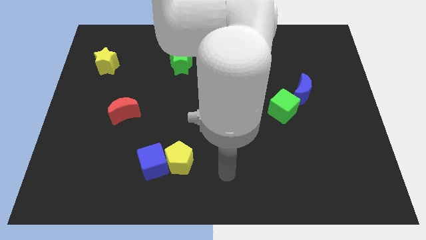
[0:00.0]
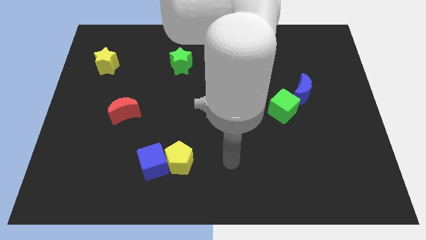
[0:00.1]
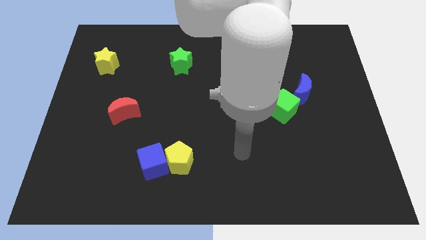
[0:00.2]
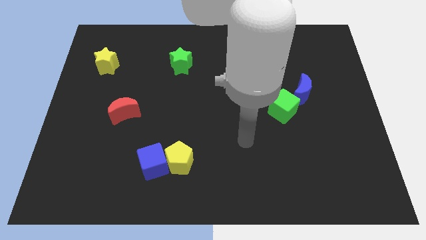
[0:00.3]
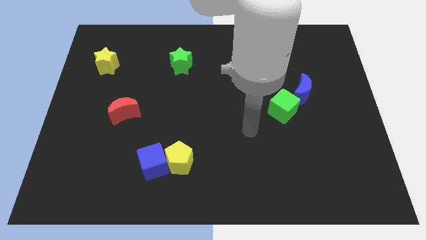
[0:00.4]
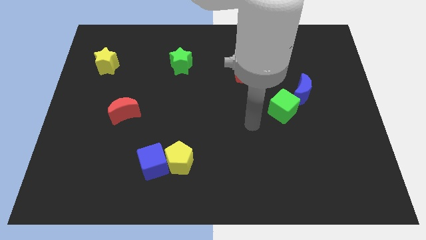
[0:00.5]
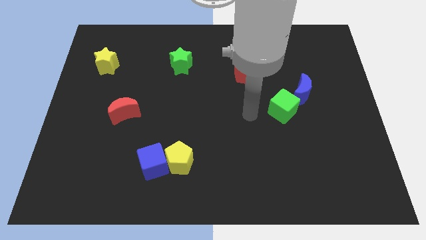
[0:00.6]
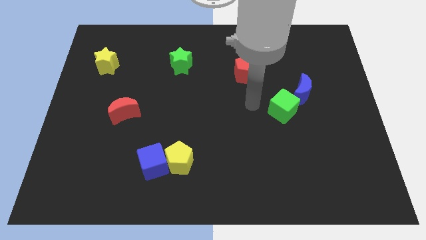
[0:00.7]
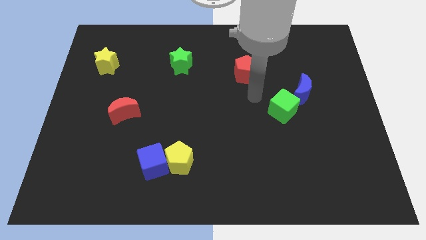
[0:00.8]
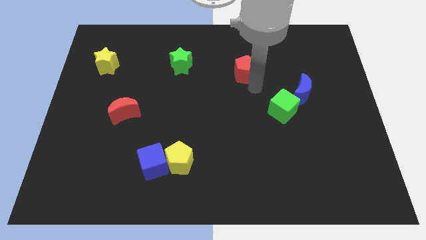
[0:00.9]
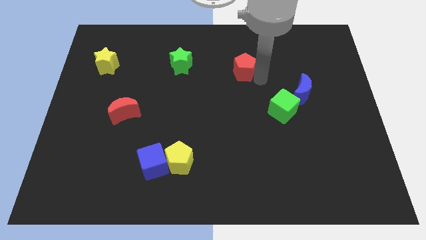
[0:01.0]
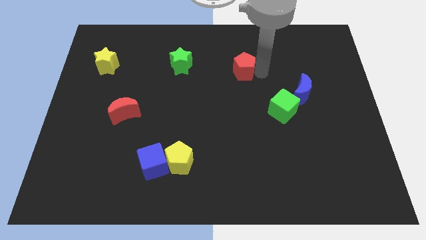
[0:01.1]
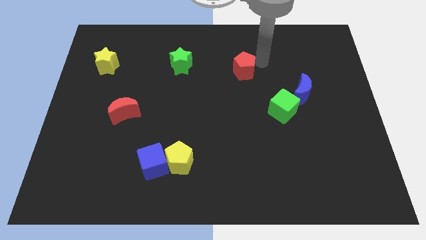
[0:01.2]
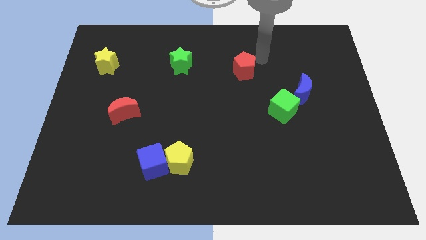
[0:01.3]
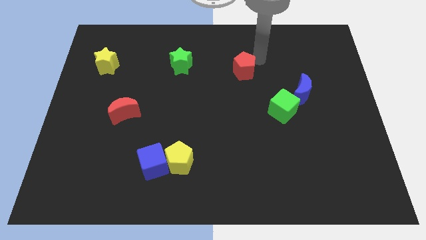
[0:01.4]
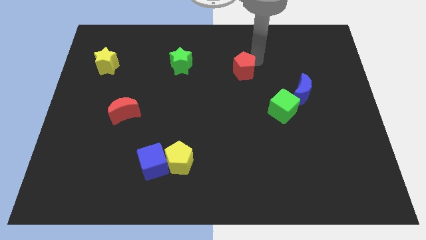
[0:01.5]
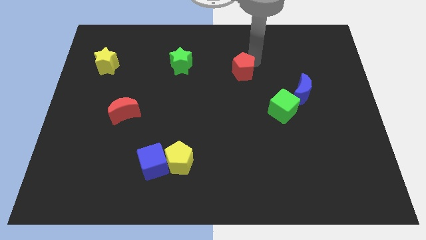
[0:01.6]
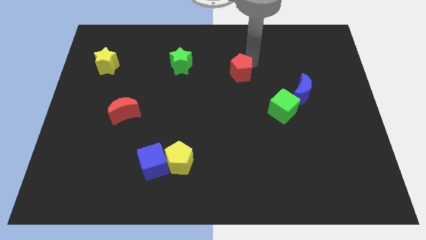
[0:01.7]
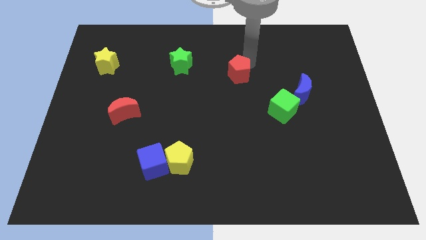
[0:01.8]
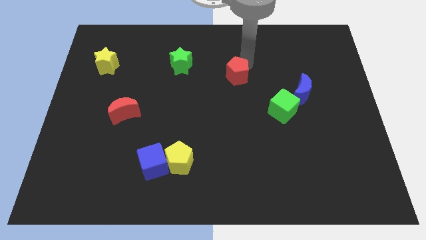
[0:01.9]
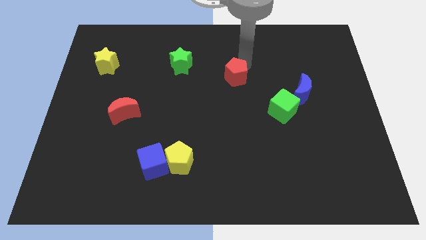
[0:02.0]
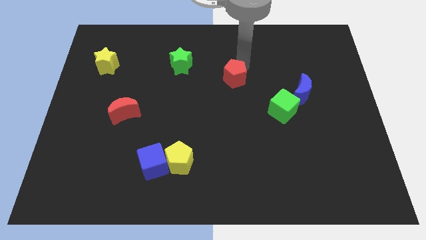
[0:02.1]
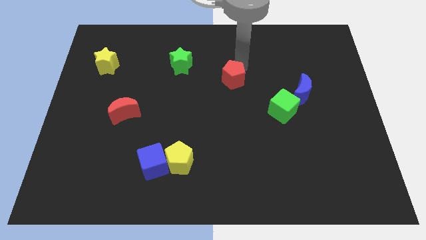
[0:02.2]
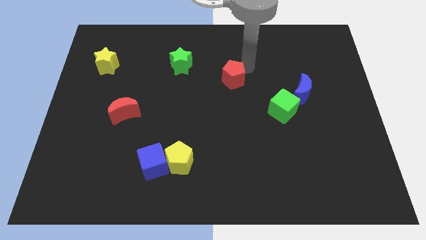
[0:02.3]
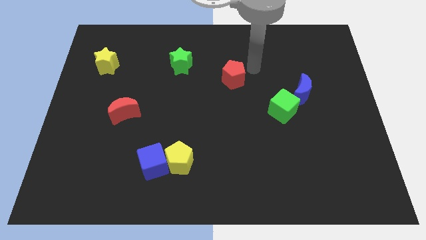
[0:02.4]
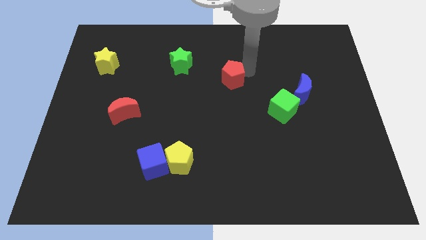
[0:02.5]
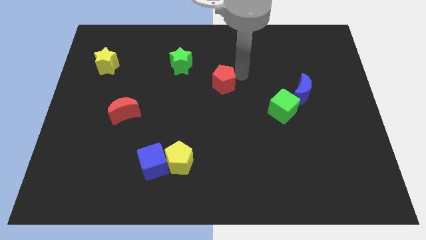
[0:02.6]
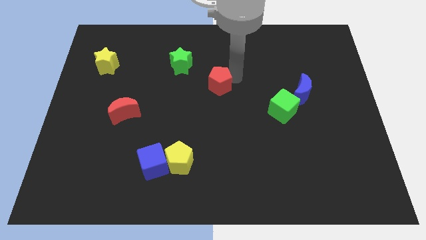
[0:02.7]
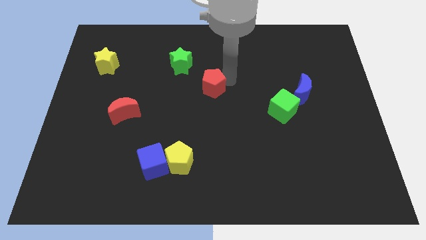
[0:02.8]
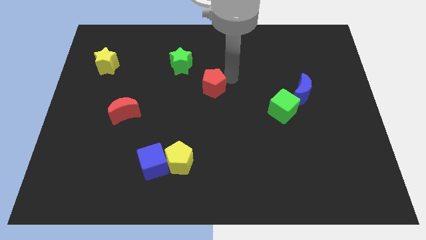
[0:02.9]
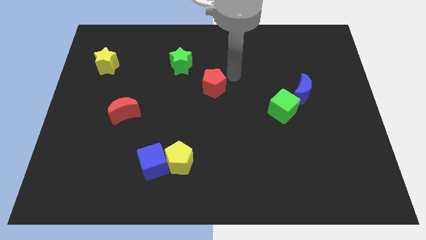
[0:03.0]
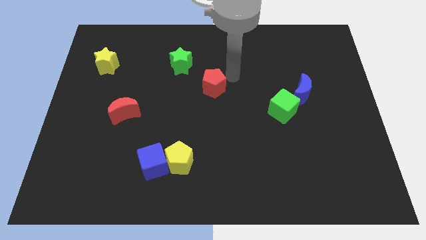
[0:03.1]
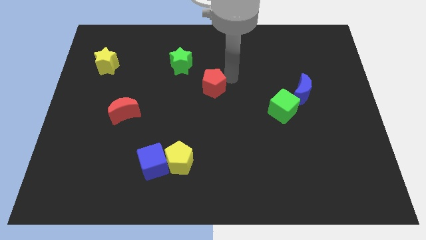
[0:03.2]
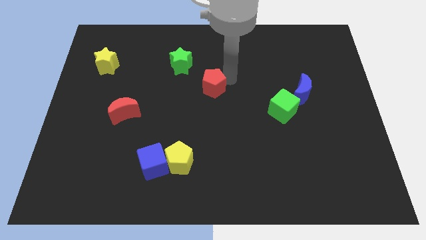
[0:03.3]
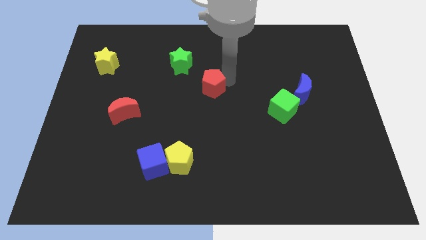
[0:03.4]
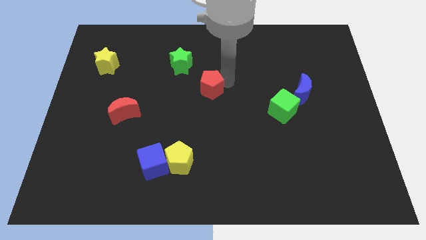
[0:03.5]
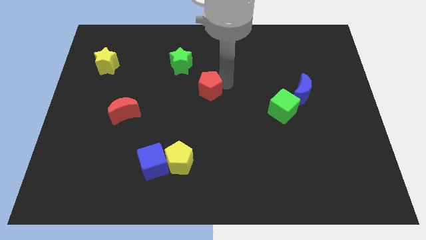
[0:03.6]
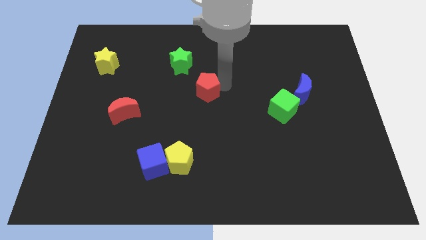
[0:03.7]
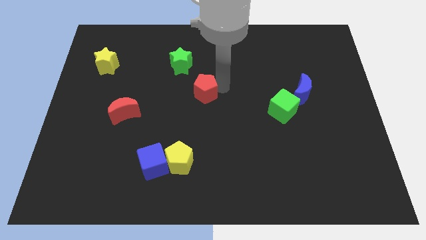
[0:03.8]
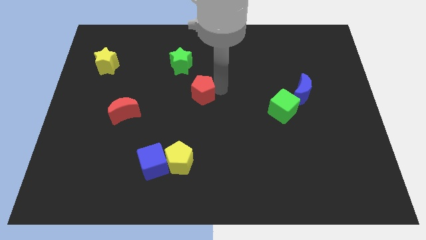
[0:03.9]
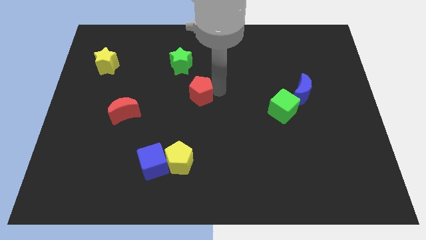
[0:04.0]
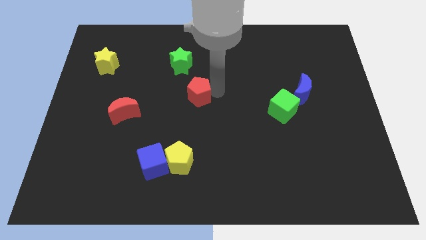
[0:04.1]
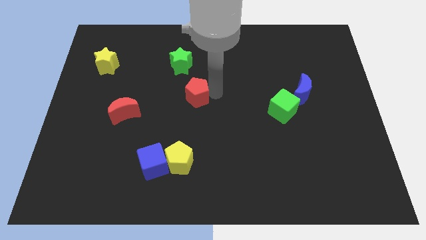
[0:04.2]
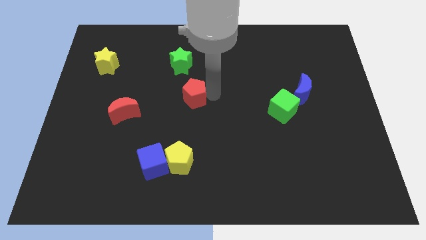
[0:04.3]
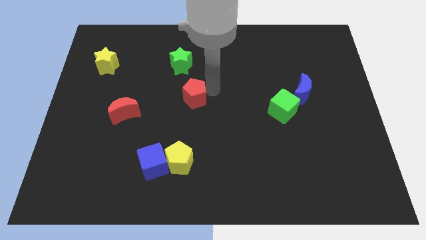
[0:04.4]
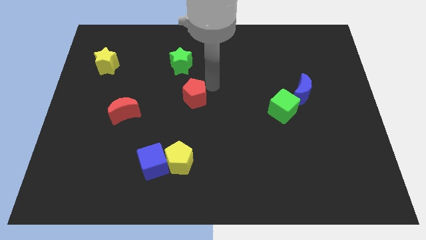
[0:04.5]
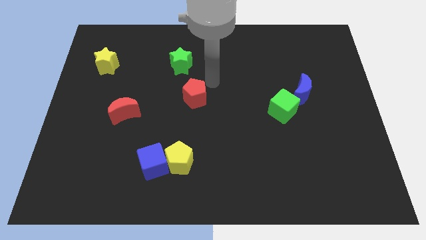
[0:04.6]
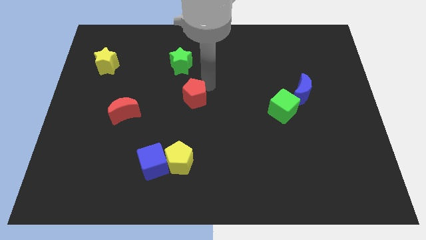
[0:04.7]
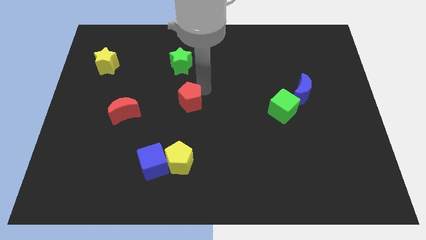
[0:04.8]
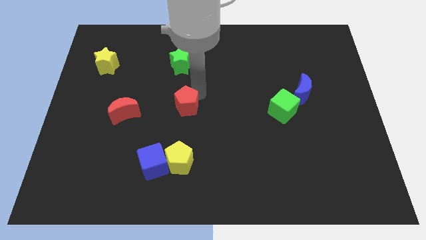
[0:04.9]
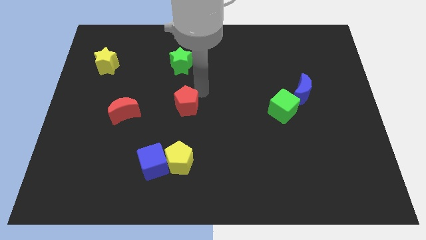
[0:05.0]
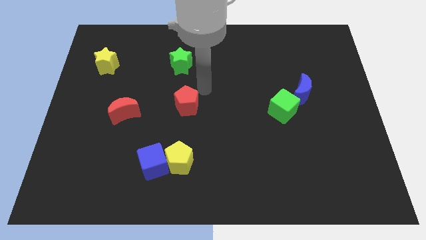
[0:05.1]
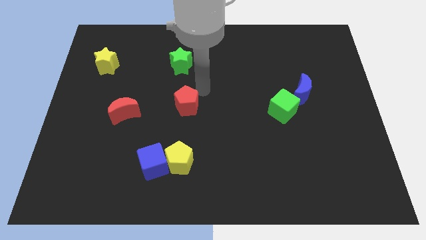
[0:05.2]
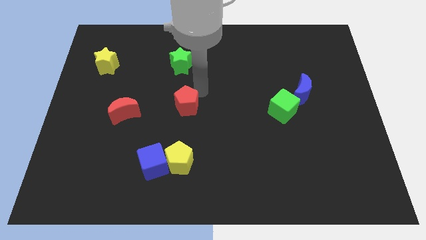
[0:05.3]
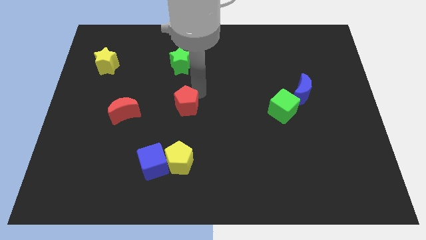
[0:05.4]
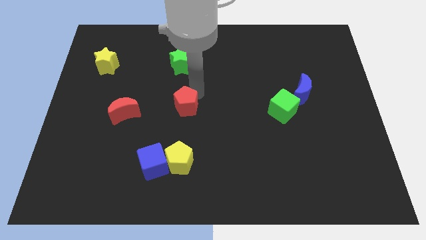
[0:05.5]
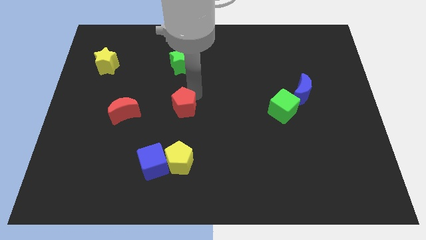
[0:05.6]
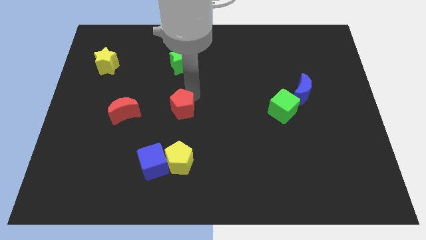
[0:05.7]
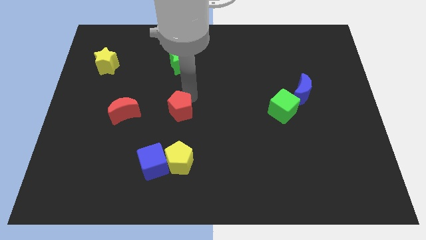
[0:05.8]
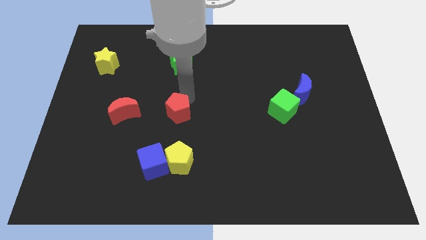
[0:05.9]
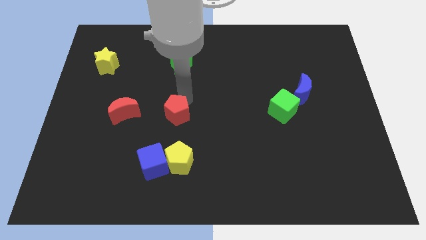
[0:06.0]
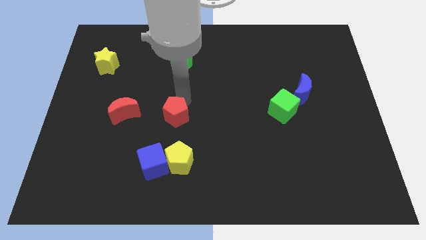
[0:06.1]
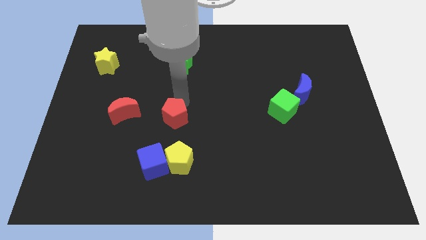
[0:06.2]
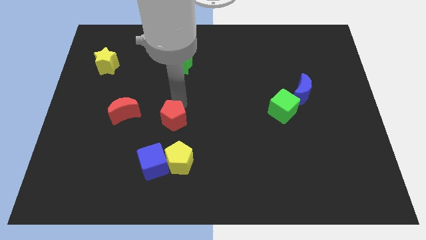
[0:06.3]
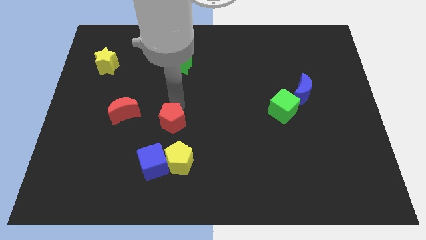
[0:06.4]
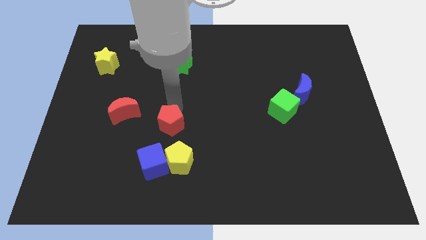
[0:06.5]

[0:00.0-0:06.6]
move the red pentagon to the top left side of the yellow pentagon
